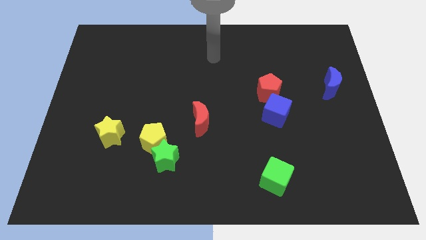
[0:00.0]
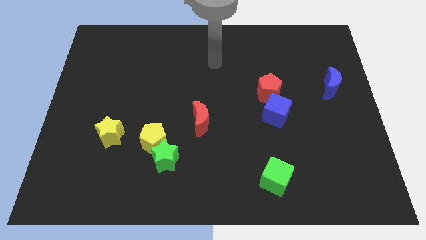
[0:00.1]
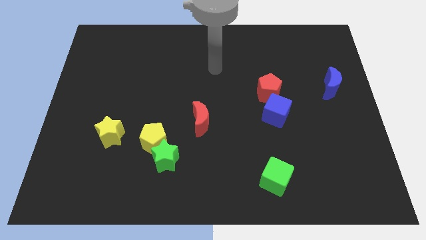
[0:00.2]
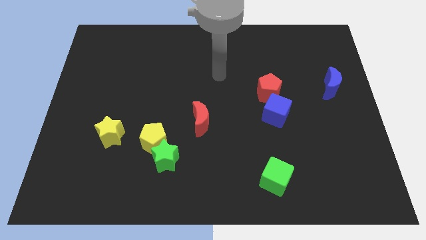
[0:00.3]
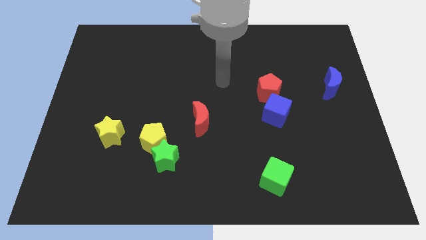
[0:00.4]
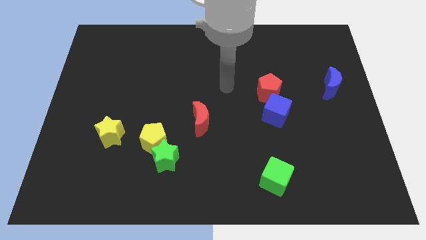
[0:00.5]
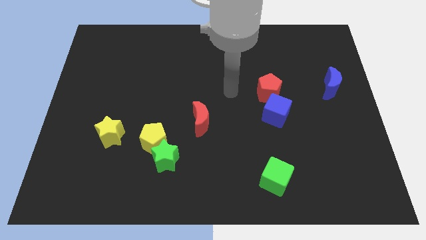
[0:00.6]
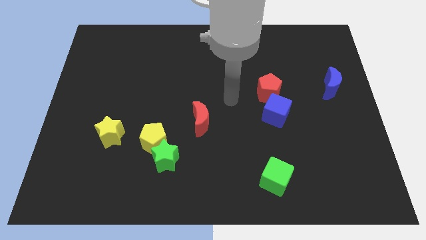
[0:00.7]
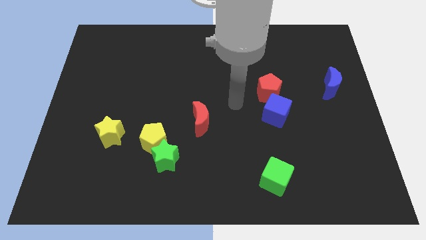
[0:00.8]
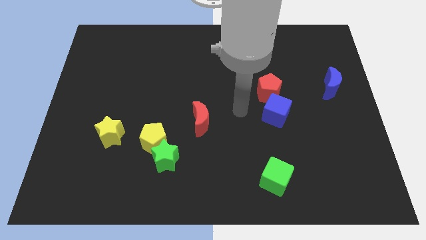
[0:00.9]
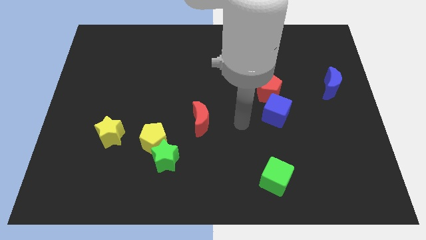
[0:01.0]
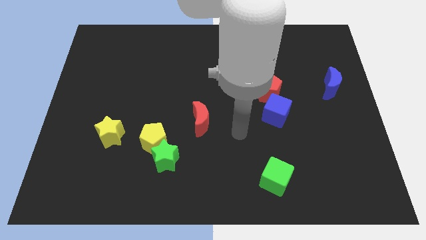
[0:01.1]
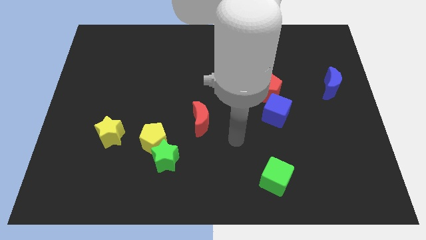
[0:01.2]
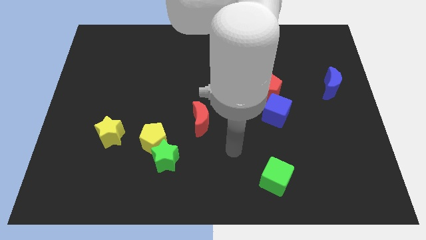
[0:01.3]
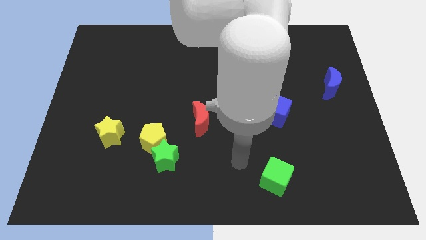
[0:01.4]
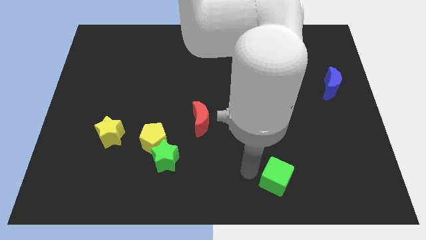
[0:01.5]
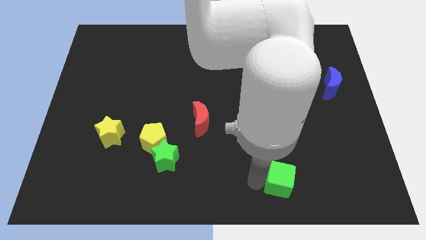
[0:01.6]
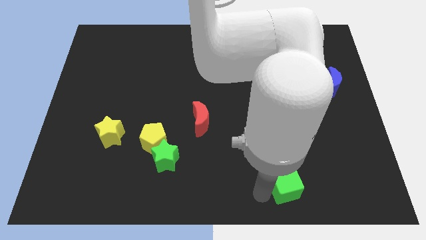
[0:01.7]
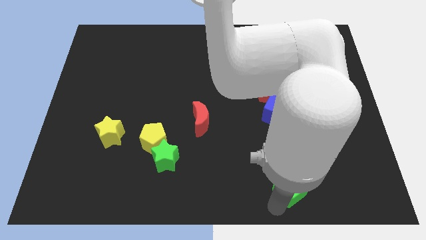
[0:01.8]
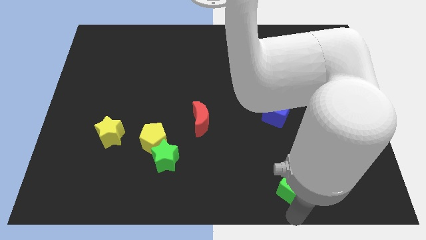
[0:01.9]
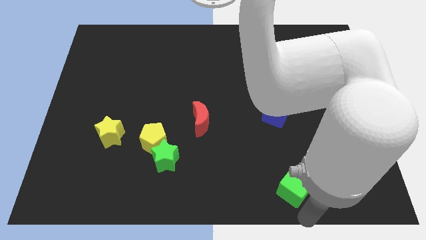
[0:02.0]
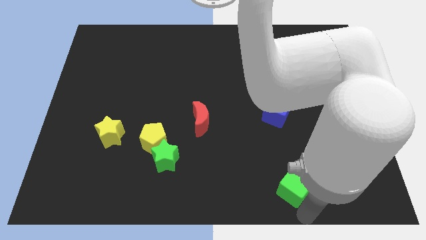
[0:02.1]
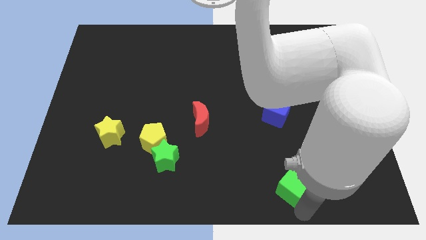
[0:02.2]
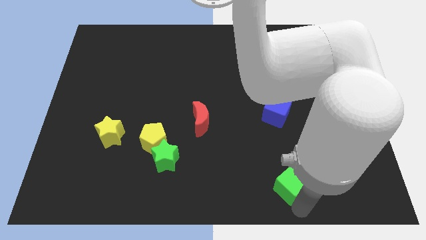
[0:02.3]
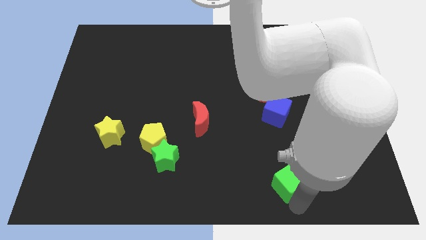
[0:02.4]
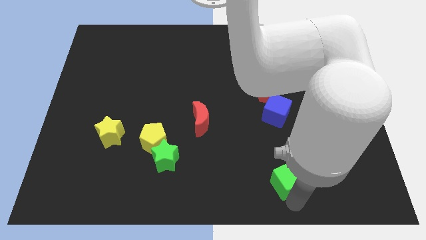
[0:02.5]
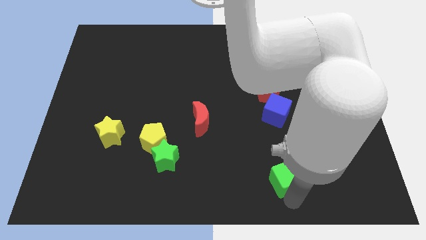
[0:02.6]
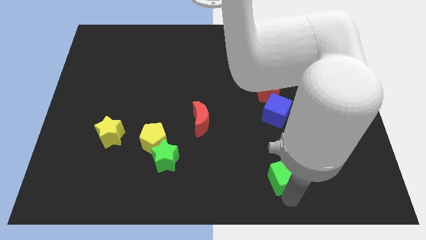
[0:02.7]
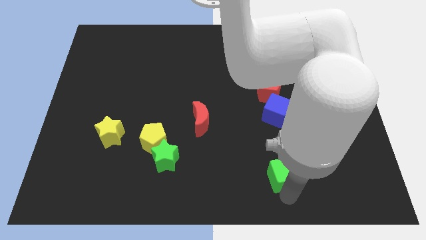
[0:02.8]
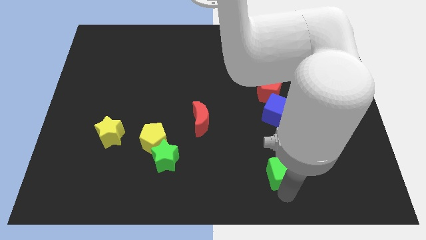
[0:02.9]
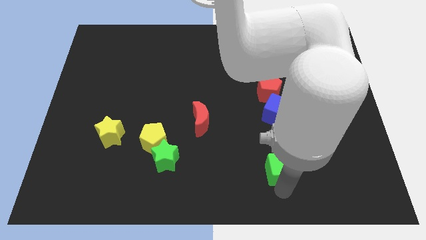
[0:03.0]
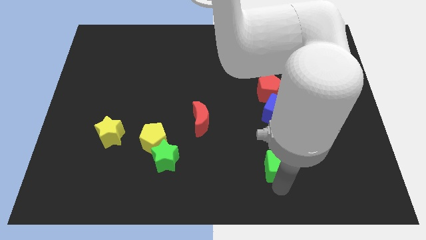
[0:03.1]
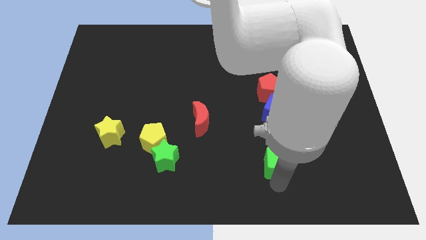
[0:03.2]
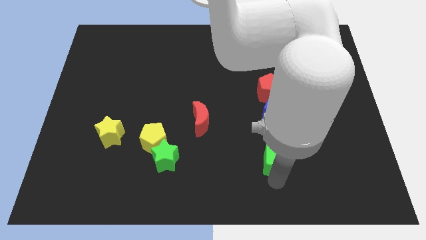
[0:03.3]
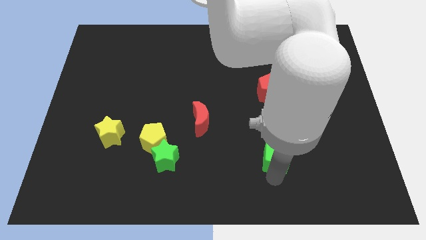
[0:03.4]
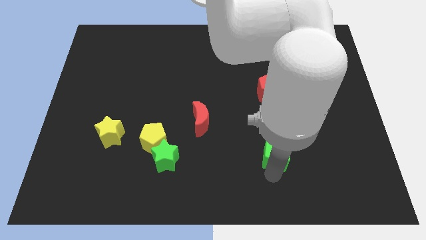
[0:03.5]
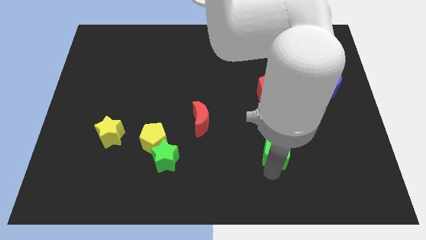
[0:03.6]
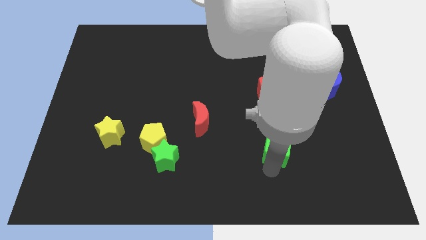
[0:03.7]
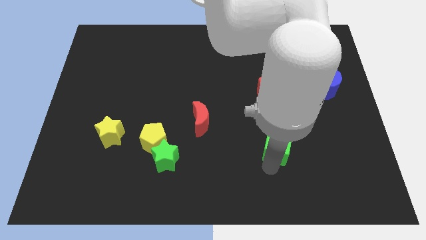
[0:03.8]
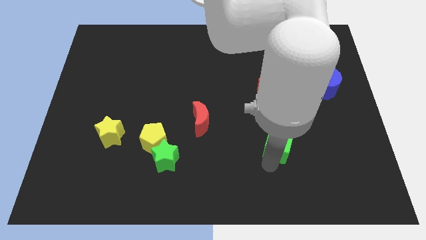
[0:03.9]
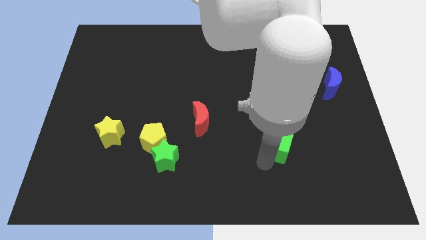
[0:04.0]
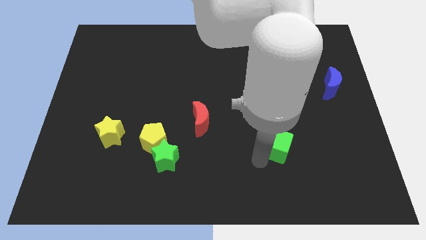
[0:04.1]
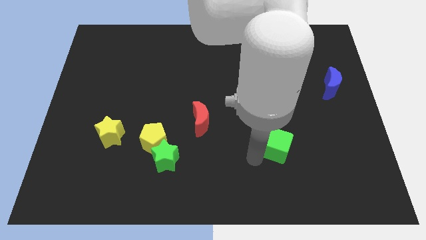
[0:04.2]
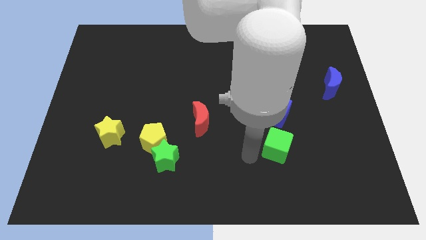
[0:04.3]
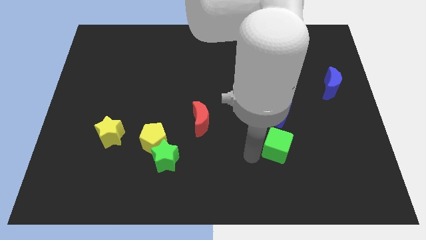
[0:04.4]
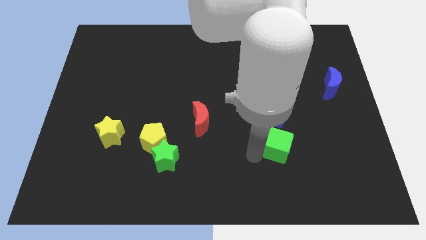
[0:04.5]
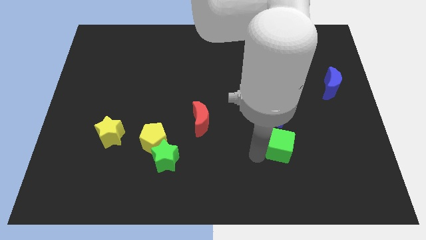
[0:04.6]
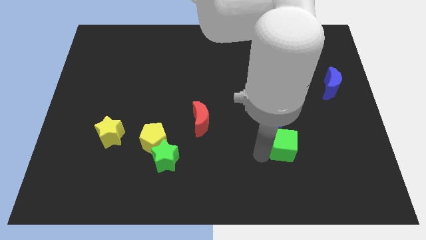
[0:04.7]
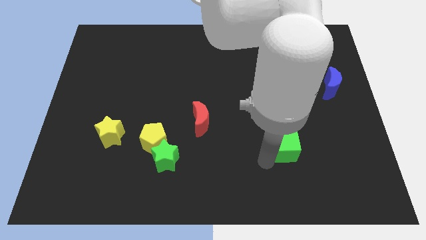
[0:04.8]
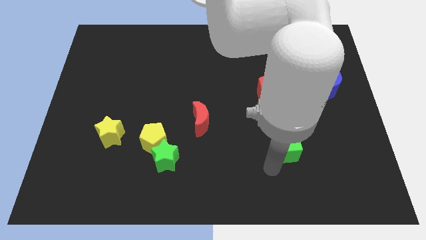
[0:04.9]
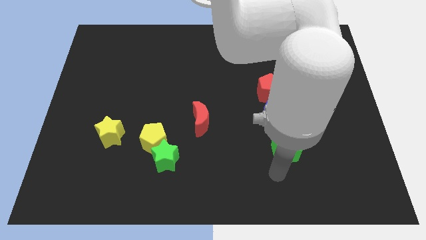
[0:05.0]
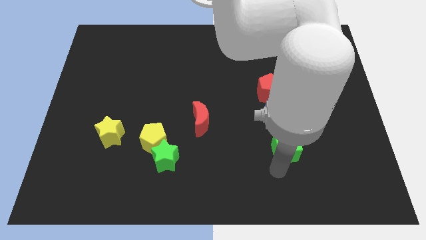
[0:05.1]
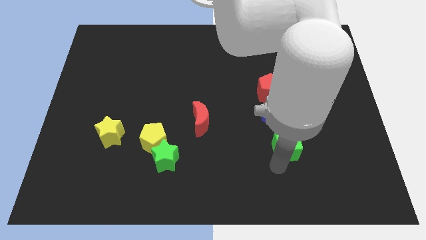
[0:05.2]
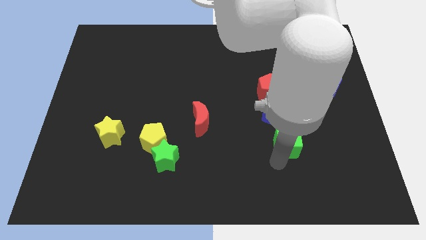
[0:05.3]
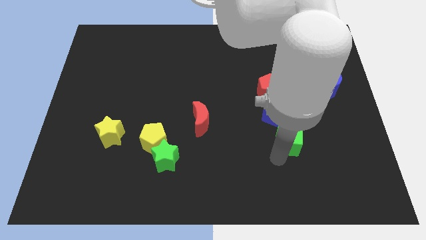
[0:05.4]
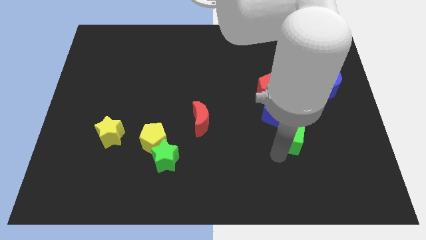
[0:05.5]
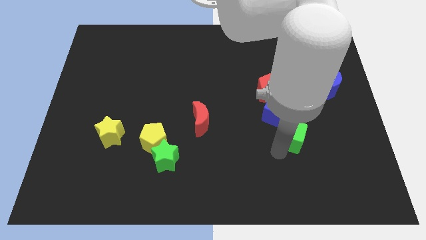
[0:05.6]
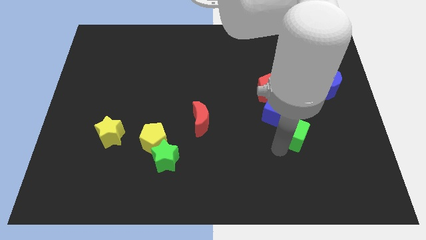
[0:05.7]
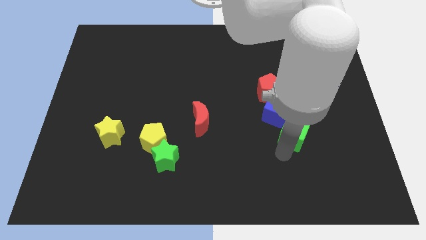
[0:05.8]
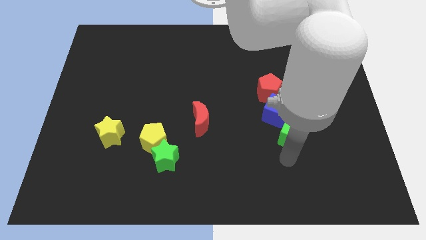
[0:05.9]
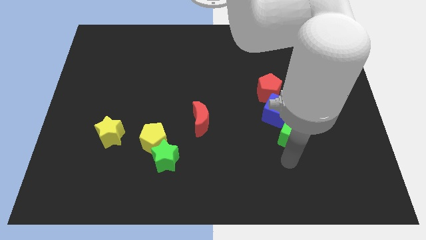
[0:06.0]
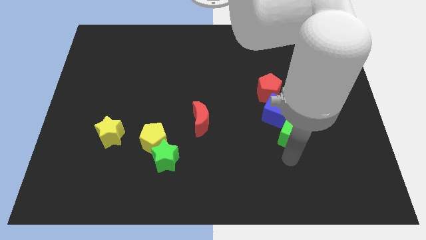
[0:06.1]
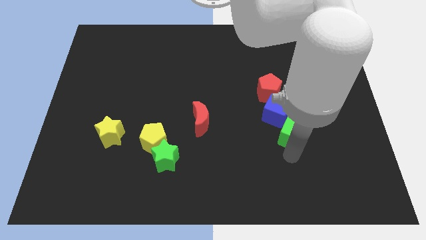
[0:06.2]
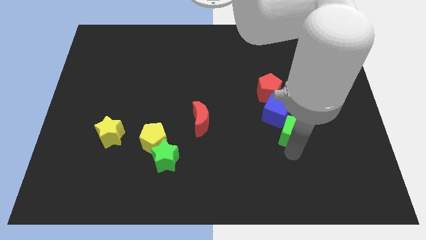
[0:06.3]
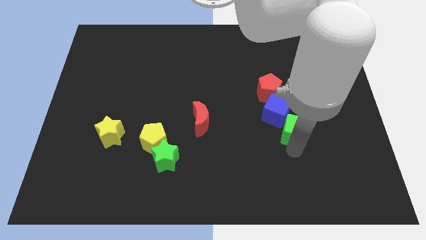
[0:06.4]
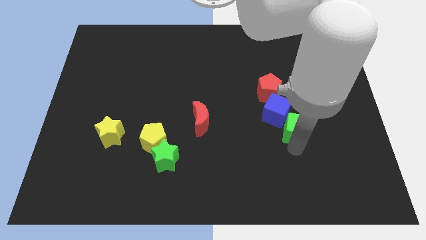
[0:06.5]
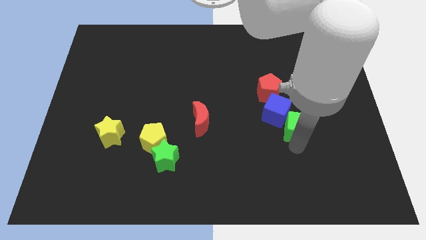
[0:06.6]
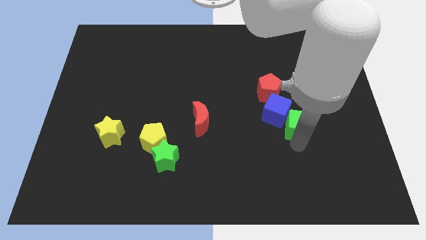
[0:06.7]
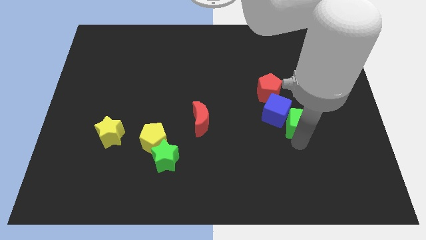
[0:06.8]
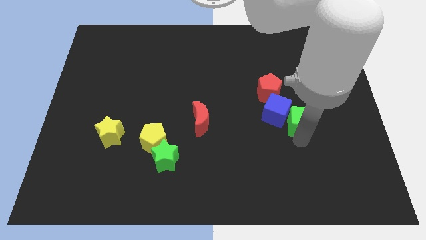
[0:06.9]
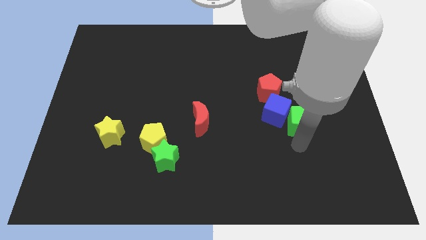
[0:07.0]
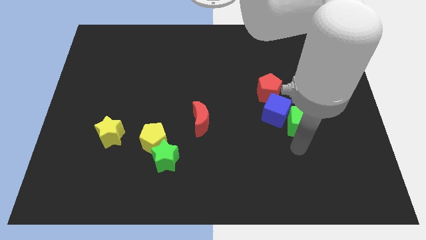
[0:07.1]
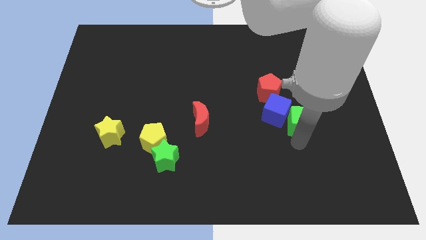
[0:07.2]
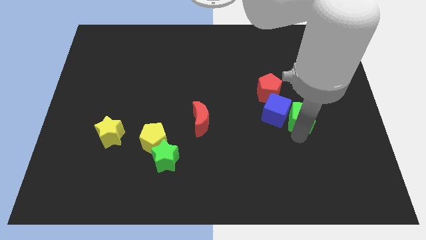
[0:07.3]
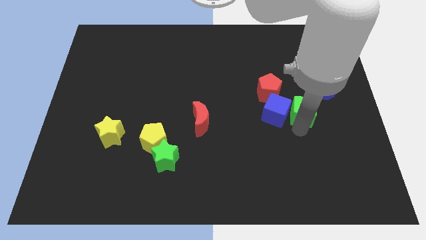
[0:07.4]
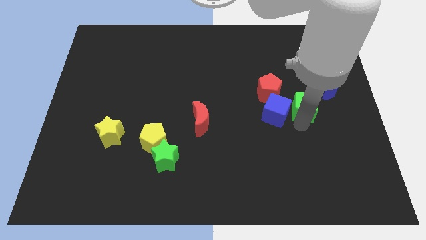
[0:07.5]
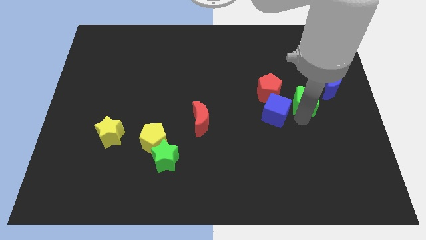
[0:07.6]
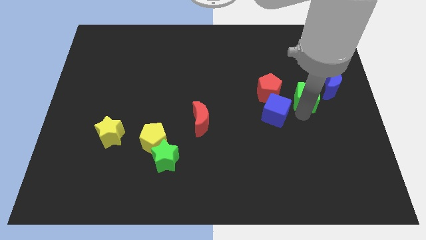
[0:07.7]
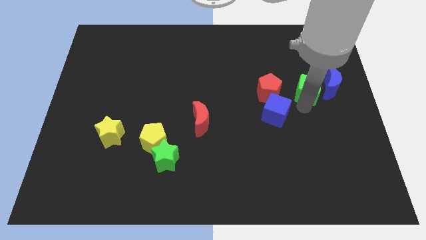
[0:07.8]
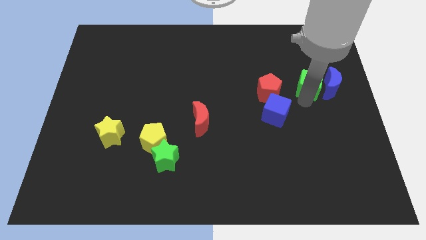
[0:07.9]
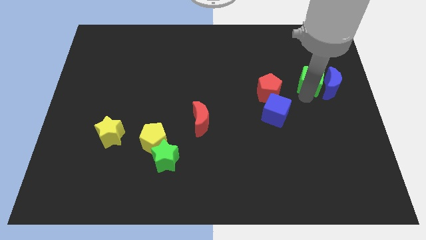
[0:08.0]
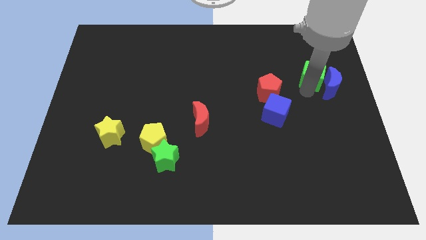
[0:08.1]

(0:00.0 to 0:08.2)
move the green cube to the top side of the blue moon
